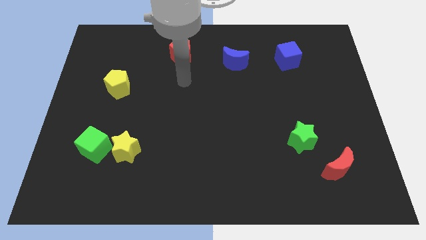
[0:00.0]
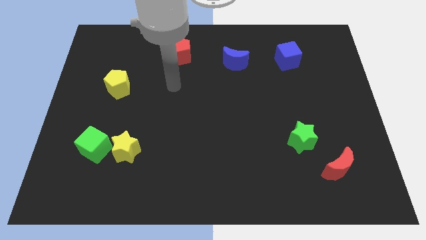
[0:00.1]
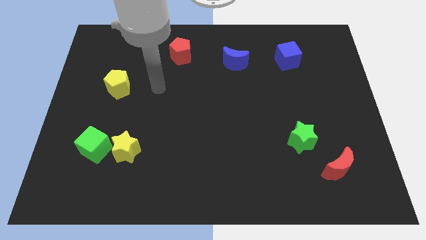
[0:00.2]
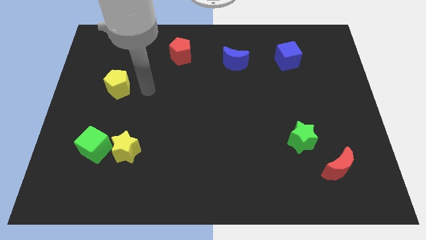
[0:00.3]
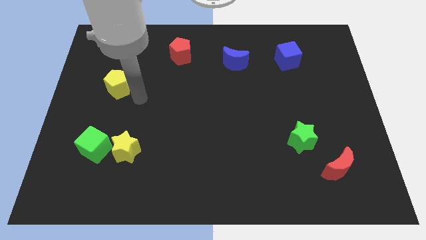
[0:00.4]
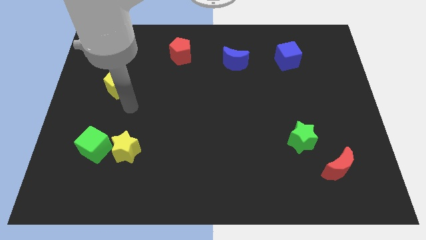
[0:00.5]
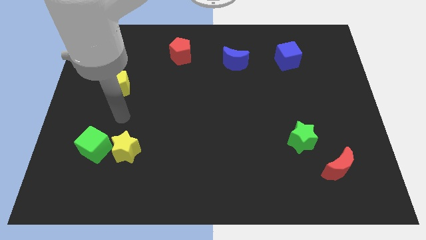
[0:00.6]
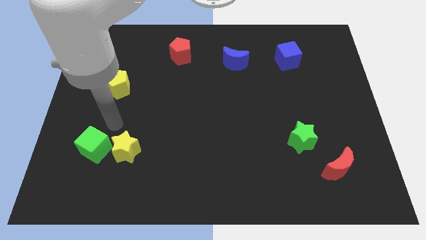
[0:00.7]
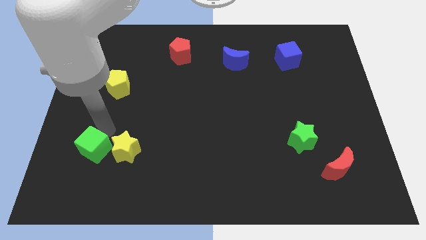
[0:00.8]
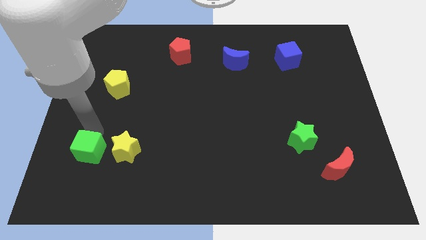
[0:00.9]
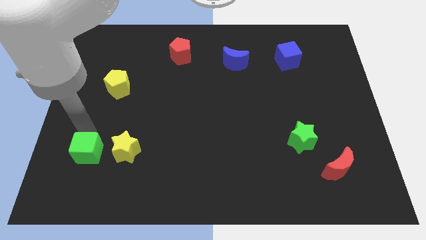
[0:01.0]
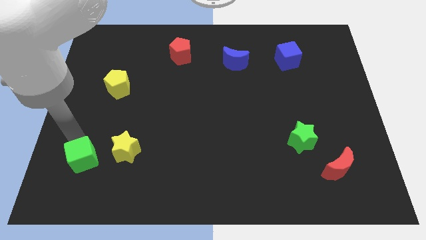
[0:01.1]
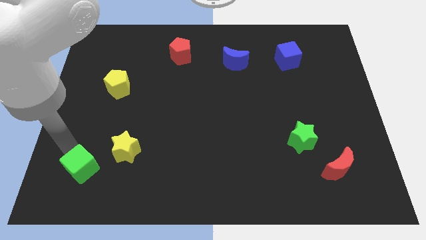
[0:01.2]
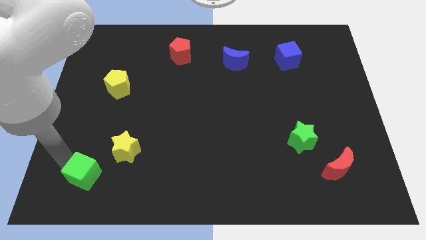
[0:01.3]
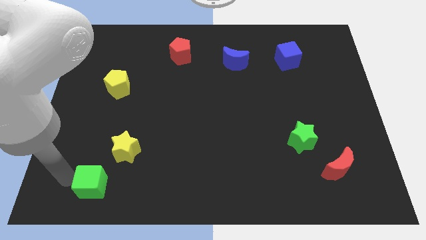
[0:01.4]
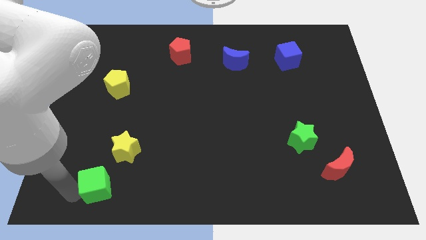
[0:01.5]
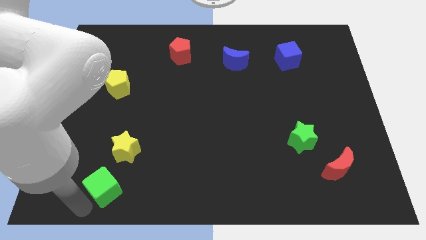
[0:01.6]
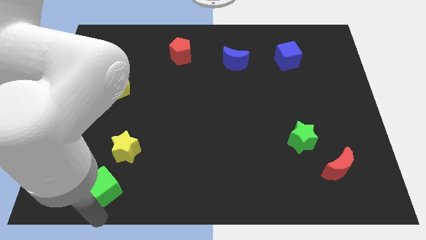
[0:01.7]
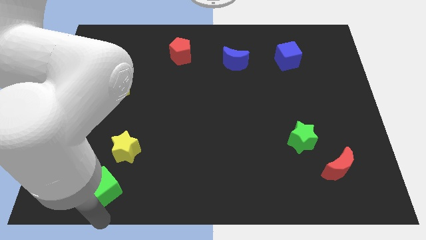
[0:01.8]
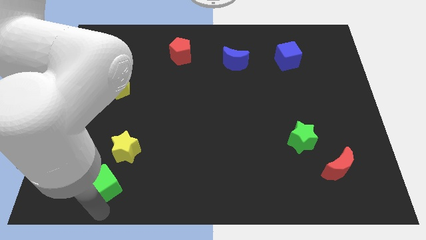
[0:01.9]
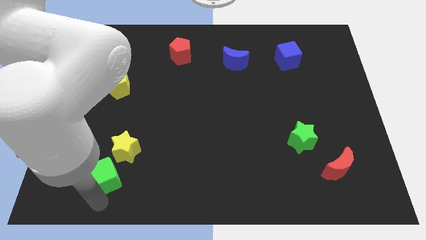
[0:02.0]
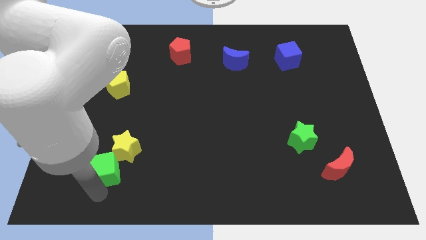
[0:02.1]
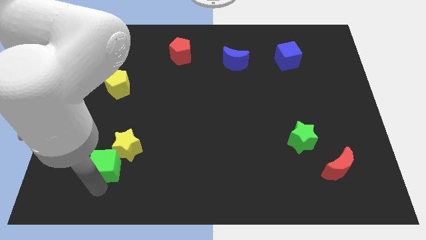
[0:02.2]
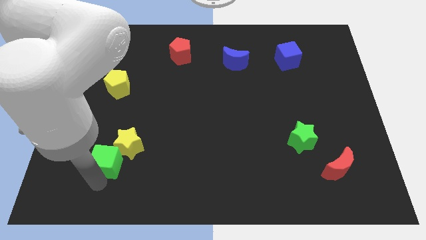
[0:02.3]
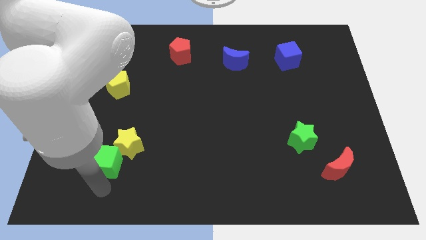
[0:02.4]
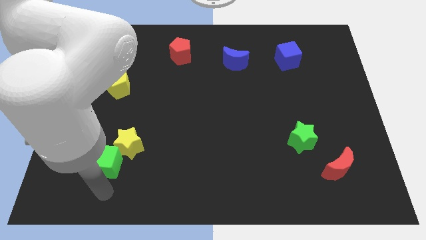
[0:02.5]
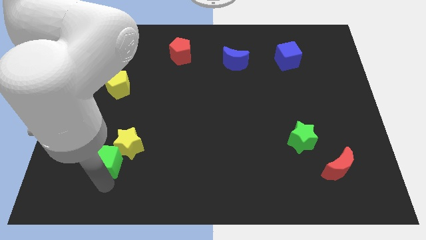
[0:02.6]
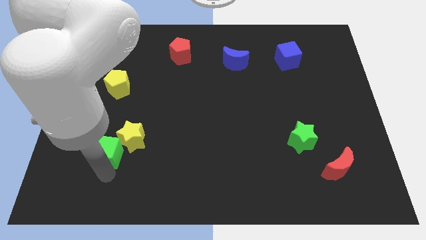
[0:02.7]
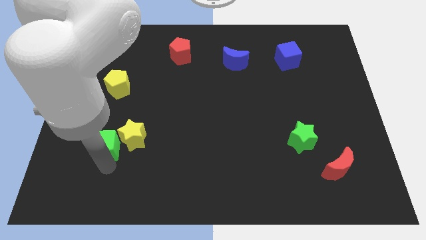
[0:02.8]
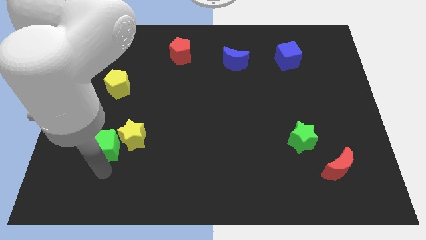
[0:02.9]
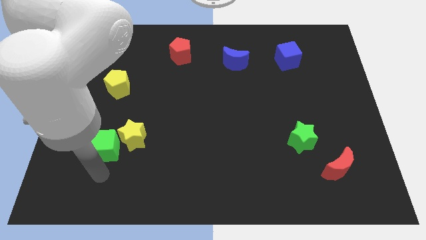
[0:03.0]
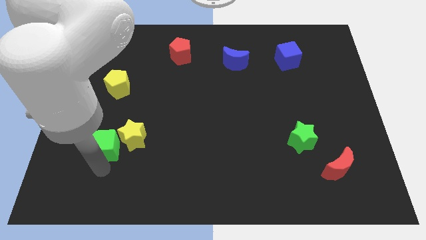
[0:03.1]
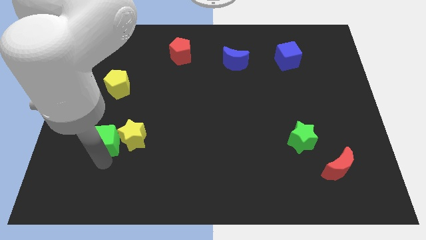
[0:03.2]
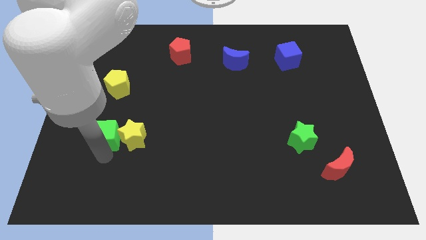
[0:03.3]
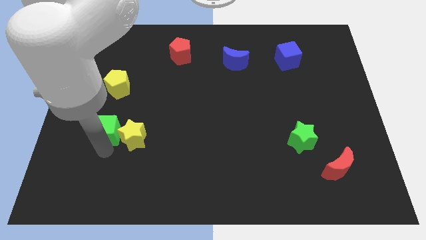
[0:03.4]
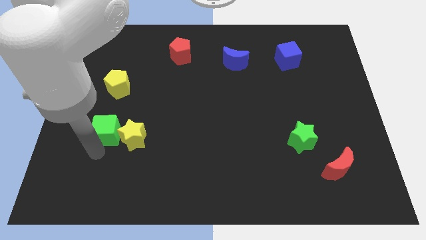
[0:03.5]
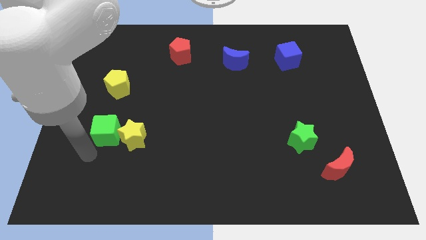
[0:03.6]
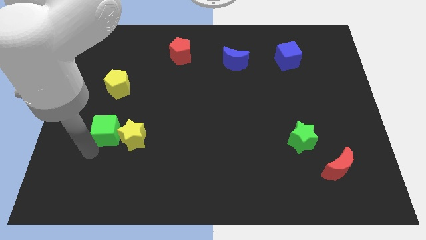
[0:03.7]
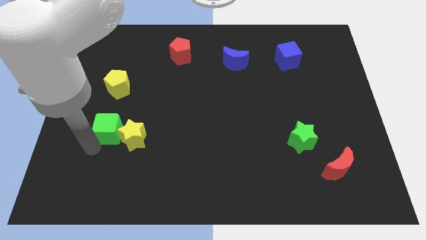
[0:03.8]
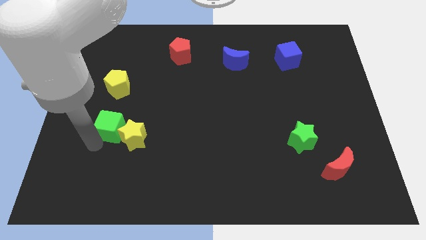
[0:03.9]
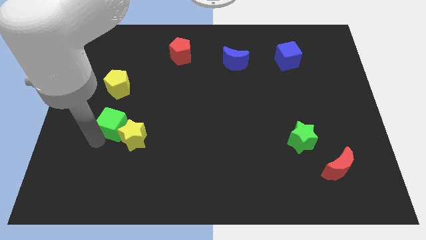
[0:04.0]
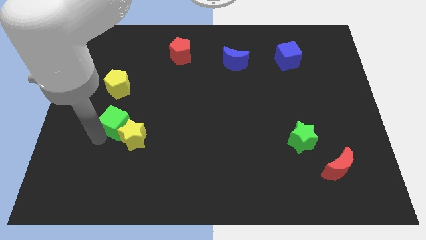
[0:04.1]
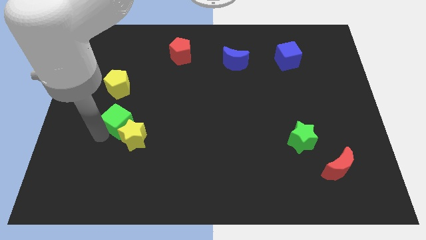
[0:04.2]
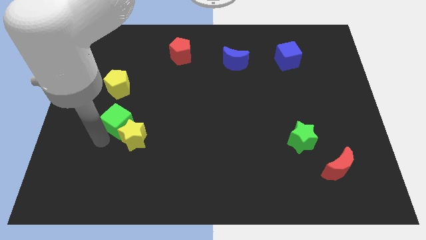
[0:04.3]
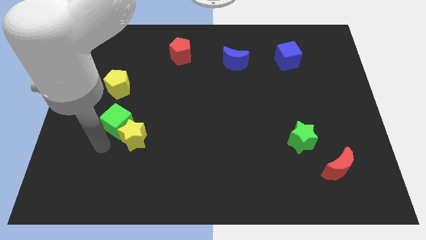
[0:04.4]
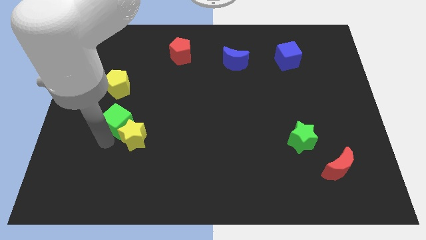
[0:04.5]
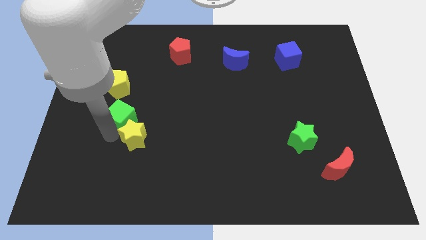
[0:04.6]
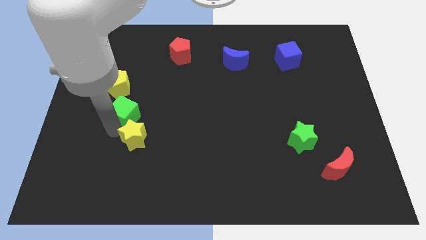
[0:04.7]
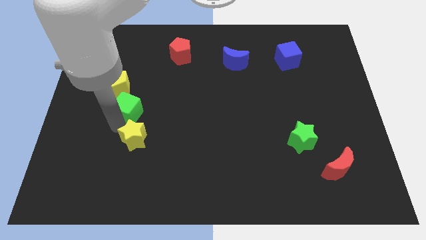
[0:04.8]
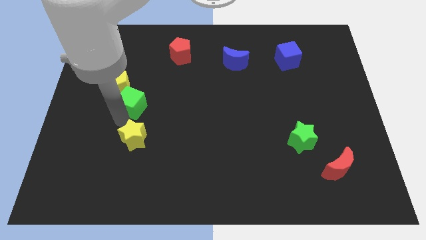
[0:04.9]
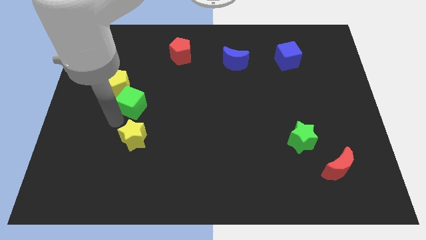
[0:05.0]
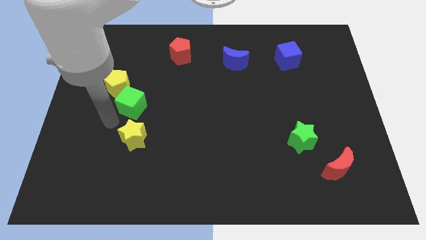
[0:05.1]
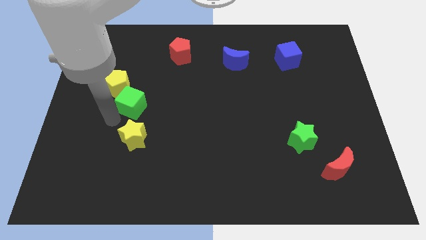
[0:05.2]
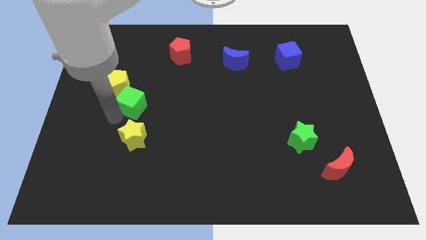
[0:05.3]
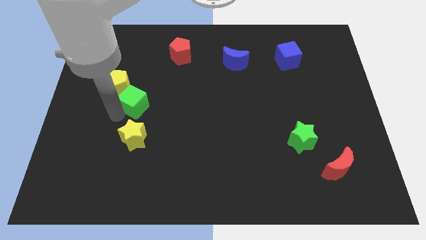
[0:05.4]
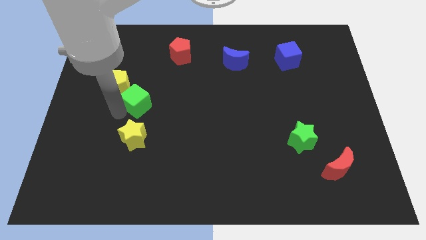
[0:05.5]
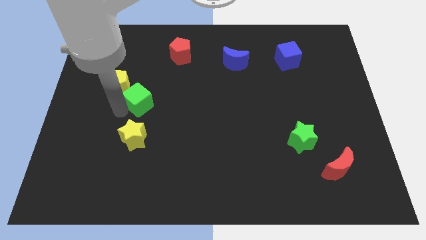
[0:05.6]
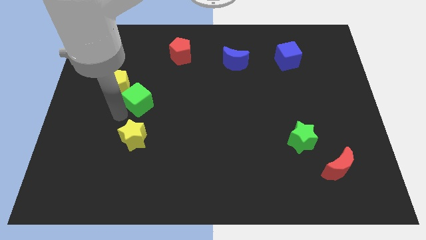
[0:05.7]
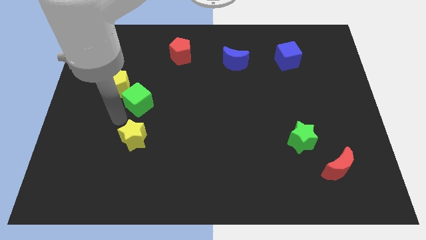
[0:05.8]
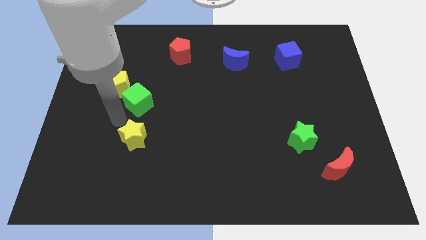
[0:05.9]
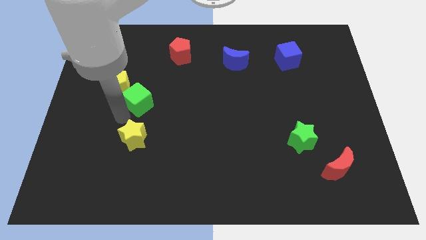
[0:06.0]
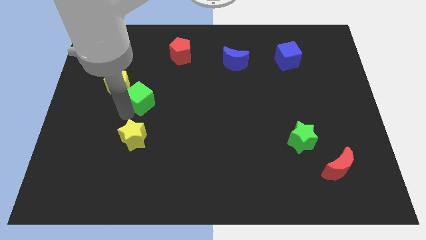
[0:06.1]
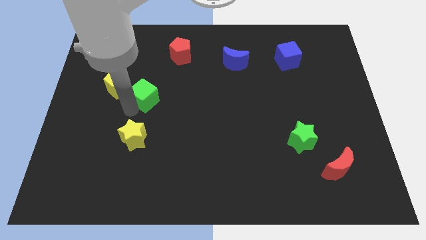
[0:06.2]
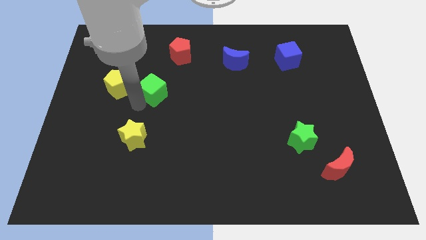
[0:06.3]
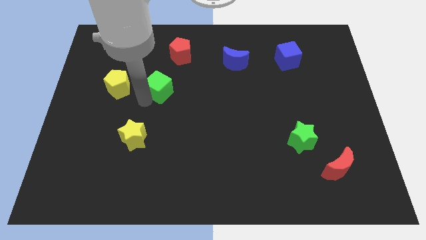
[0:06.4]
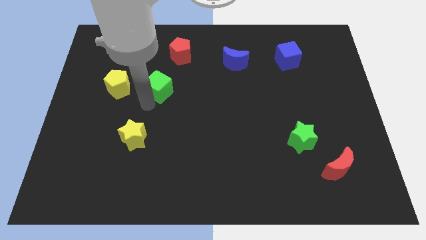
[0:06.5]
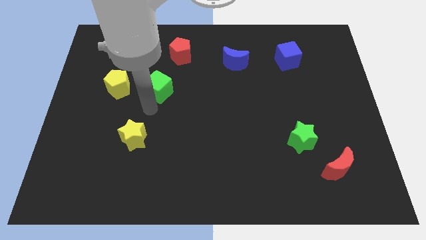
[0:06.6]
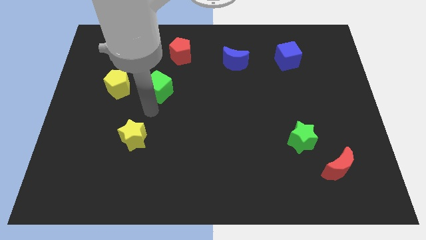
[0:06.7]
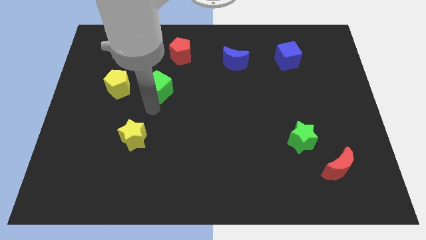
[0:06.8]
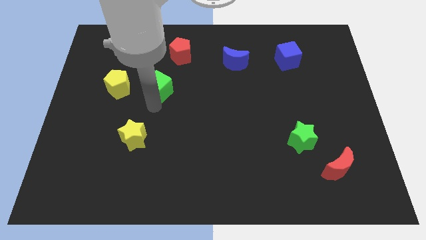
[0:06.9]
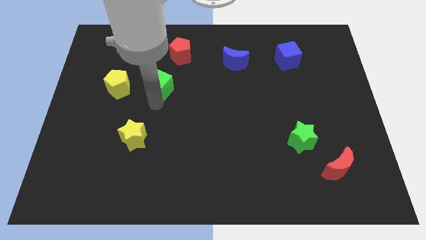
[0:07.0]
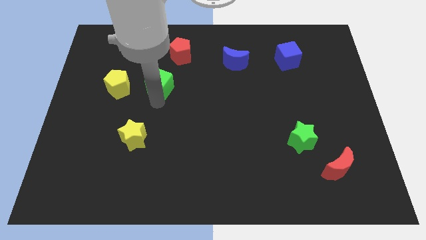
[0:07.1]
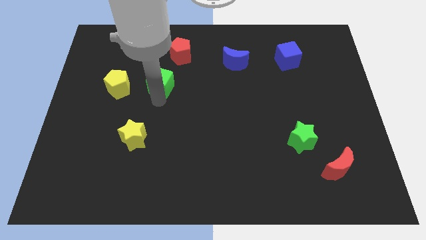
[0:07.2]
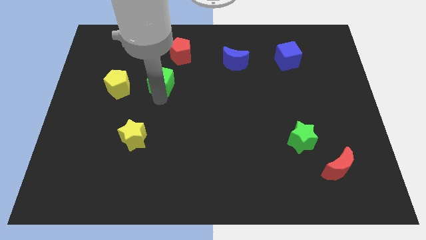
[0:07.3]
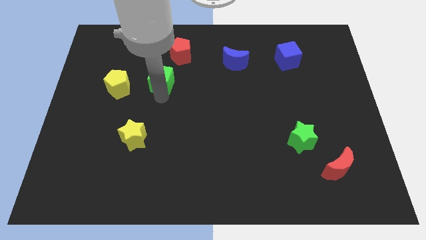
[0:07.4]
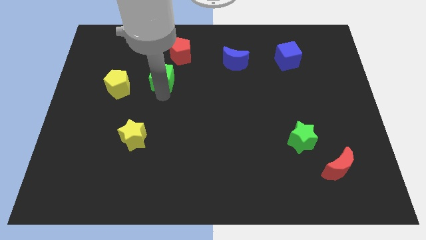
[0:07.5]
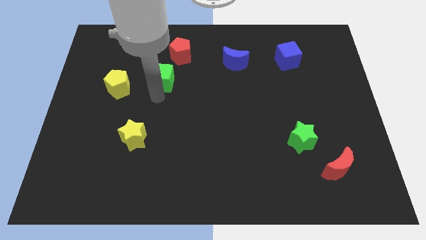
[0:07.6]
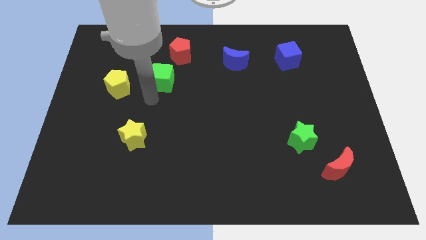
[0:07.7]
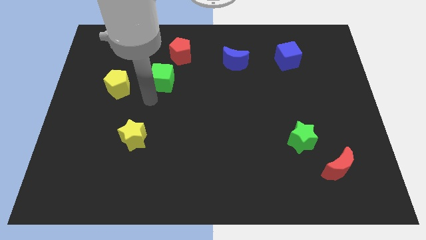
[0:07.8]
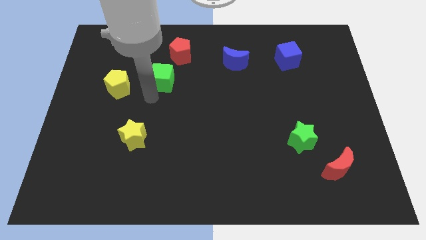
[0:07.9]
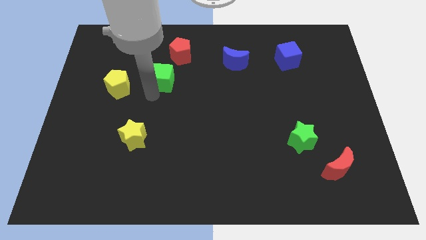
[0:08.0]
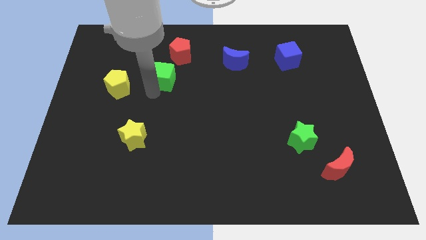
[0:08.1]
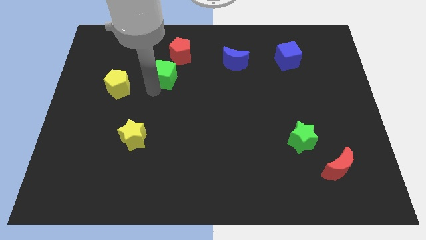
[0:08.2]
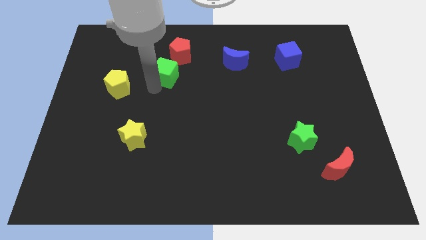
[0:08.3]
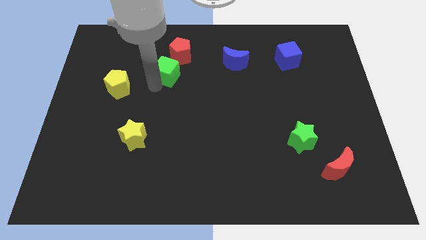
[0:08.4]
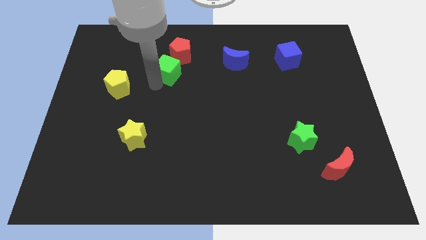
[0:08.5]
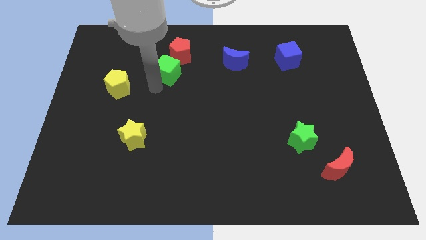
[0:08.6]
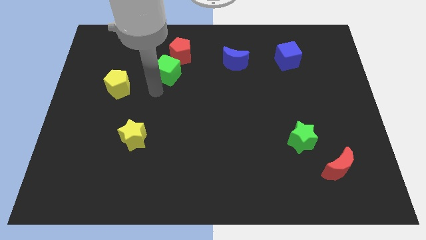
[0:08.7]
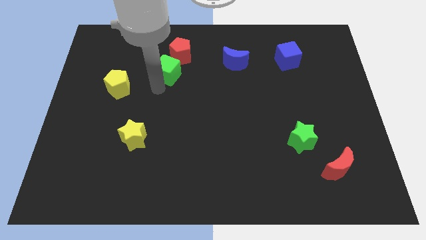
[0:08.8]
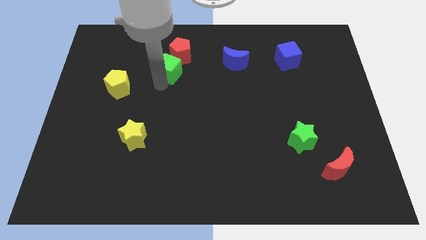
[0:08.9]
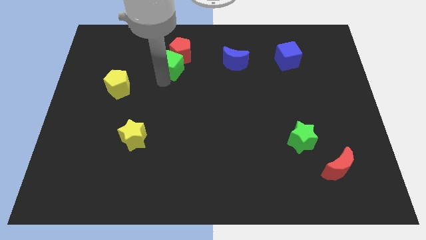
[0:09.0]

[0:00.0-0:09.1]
move the green cube towards the red pentagon
